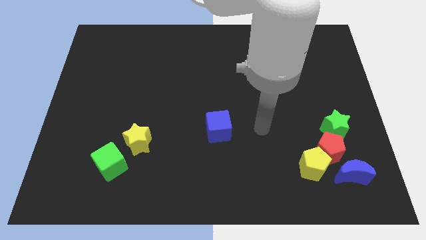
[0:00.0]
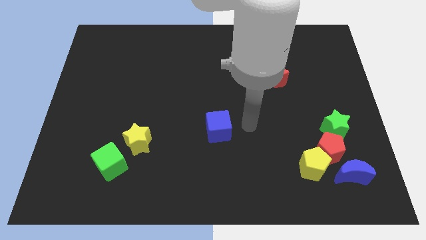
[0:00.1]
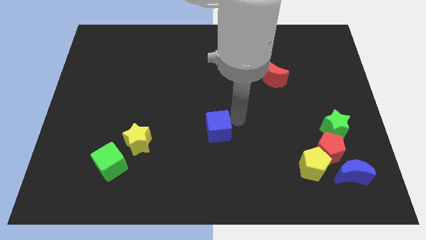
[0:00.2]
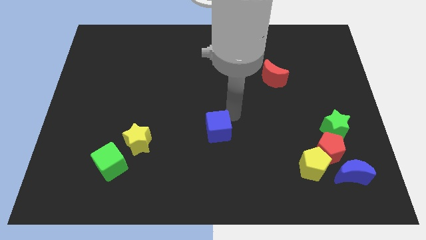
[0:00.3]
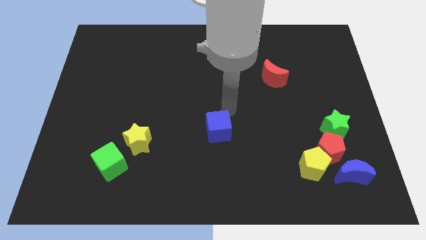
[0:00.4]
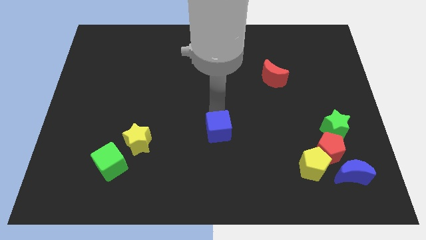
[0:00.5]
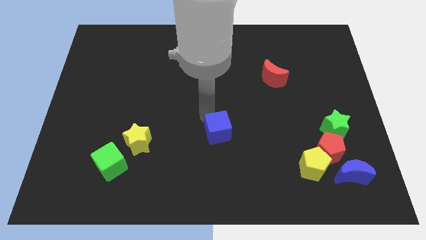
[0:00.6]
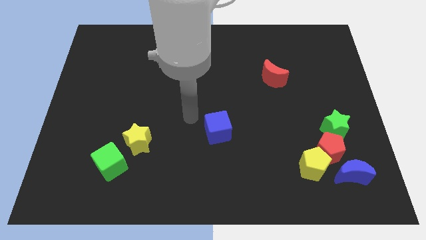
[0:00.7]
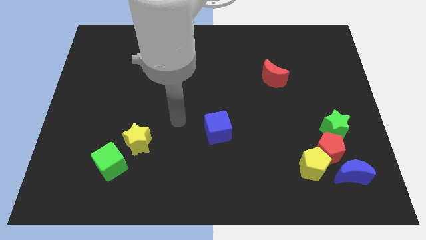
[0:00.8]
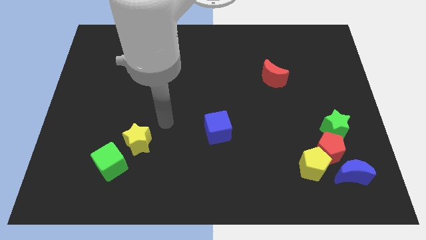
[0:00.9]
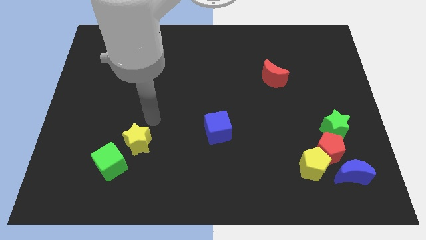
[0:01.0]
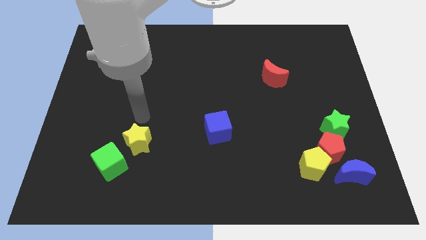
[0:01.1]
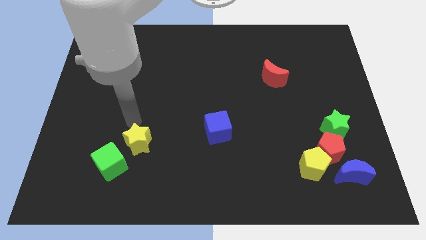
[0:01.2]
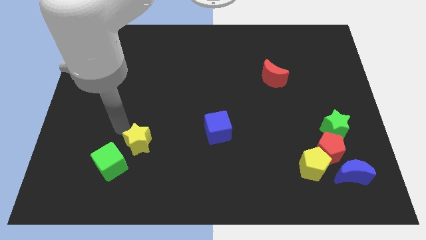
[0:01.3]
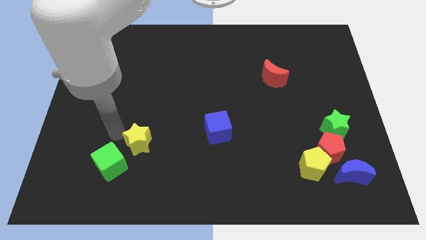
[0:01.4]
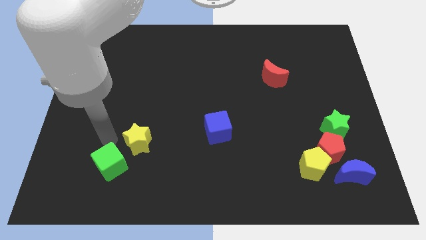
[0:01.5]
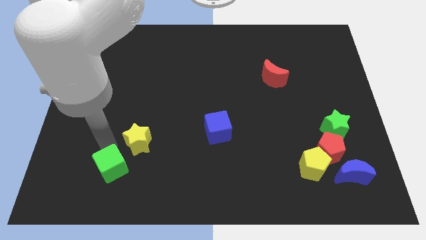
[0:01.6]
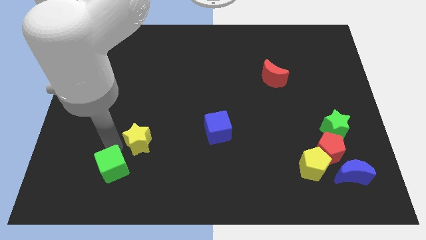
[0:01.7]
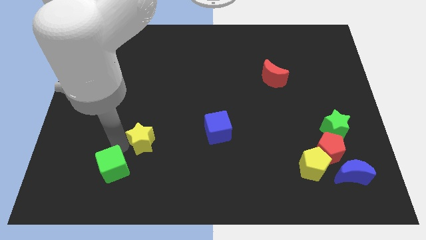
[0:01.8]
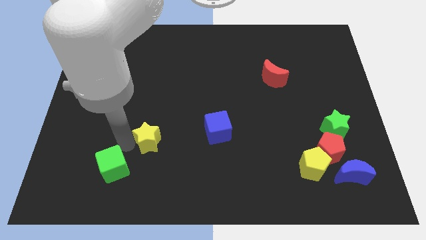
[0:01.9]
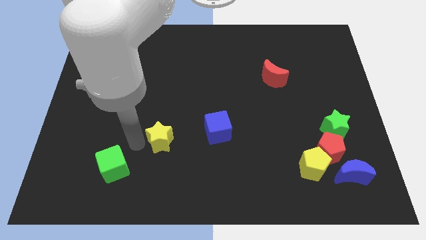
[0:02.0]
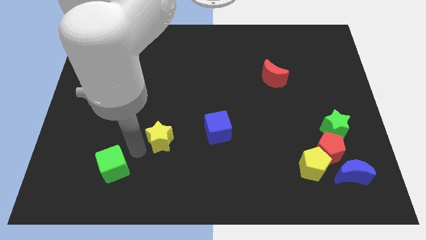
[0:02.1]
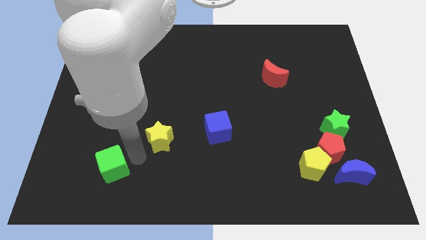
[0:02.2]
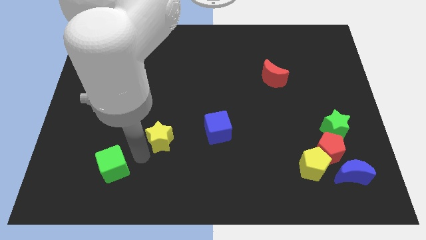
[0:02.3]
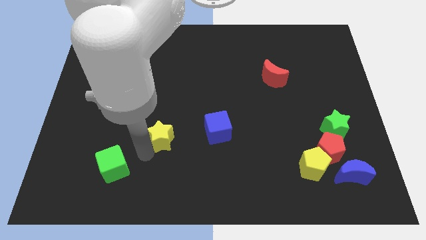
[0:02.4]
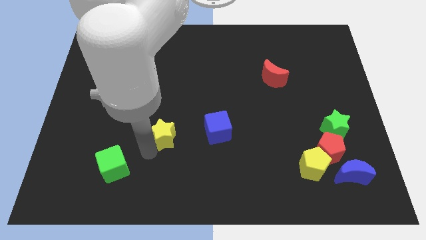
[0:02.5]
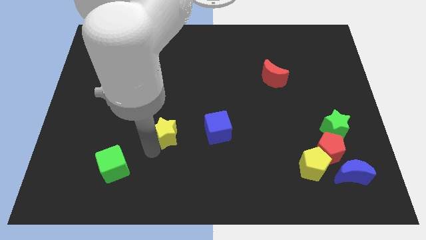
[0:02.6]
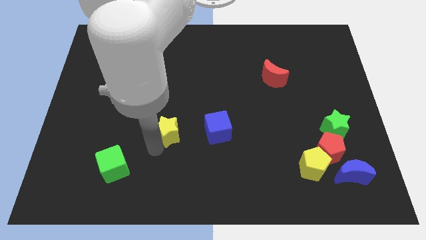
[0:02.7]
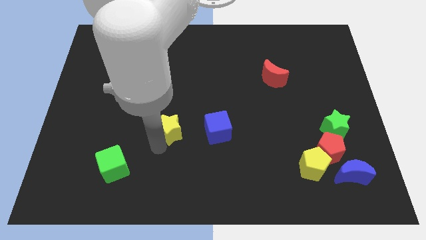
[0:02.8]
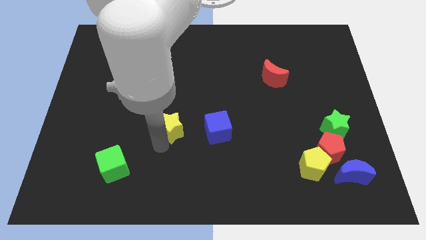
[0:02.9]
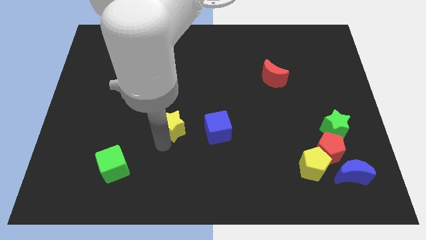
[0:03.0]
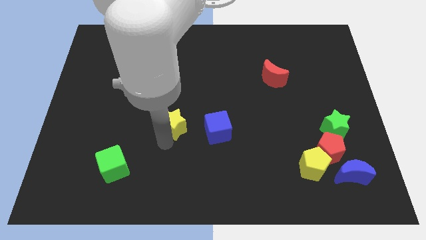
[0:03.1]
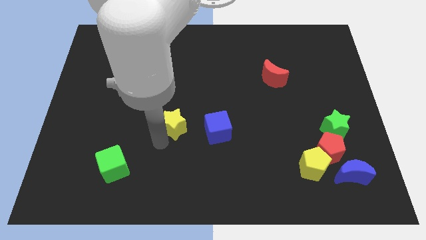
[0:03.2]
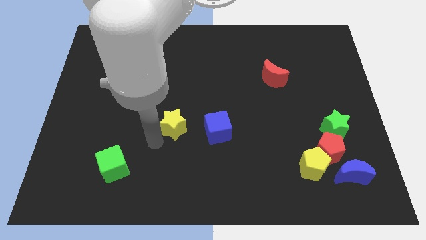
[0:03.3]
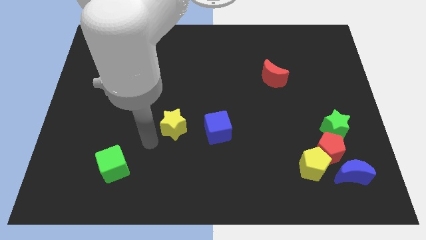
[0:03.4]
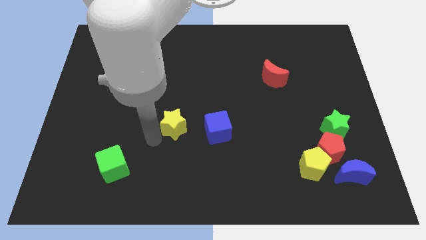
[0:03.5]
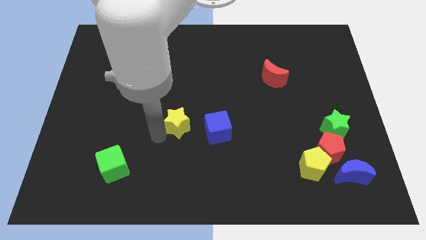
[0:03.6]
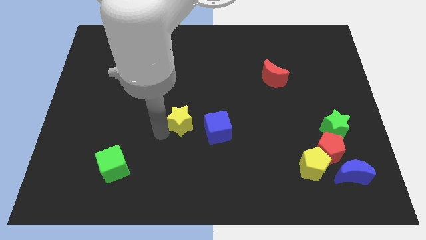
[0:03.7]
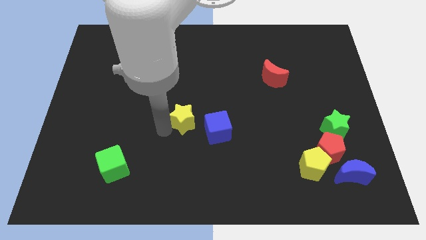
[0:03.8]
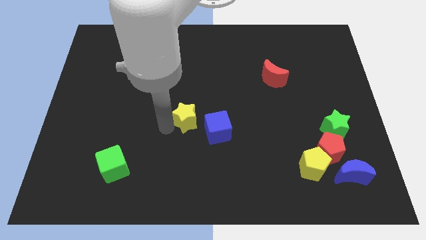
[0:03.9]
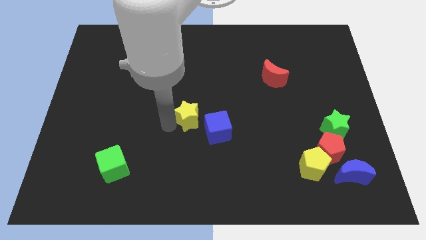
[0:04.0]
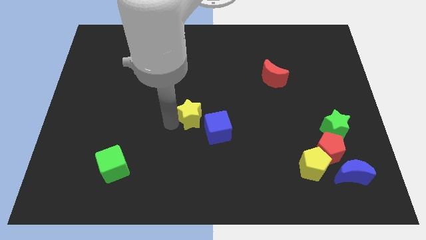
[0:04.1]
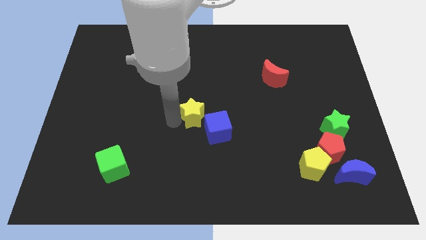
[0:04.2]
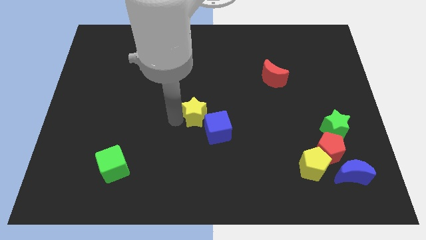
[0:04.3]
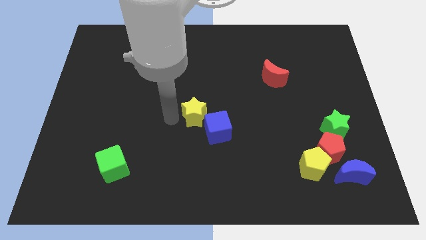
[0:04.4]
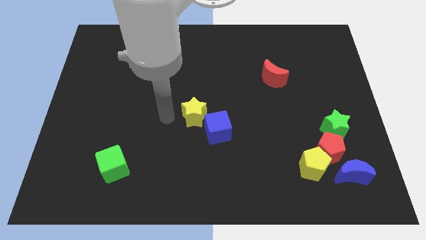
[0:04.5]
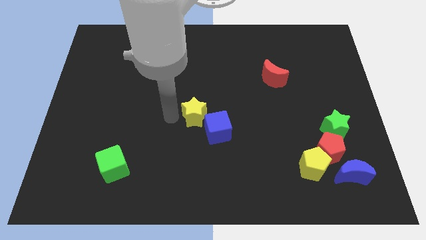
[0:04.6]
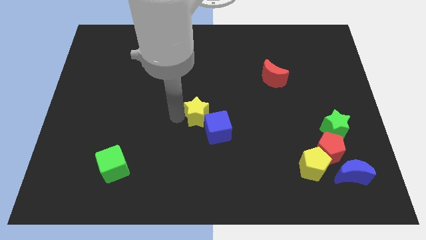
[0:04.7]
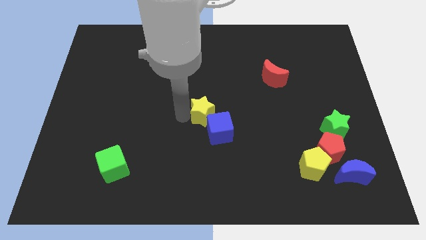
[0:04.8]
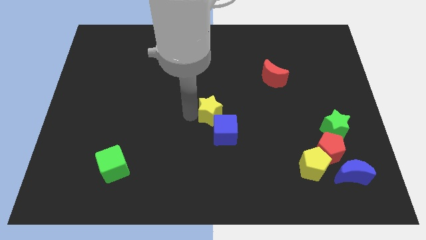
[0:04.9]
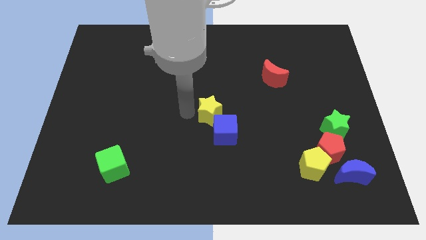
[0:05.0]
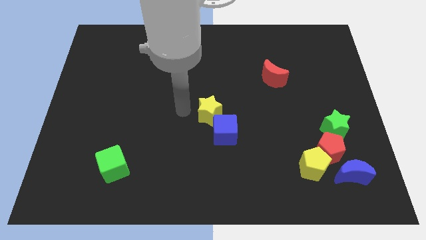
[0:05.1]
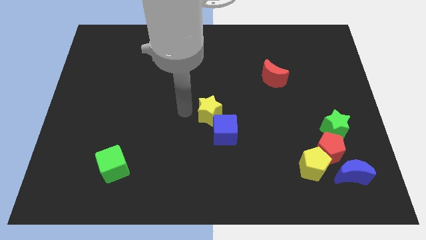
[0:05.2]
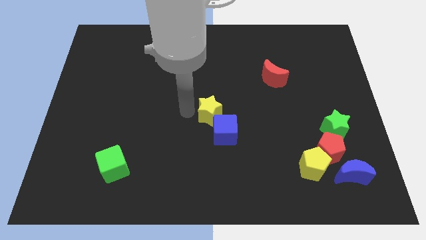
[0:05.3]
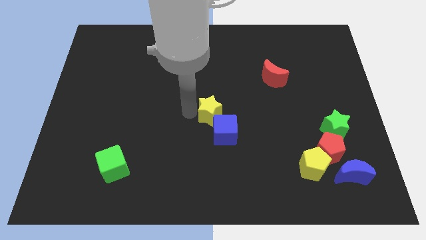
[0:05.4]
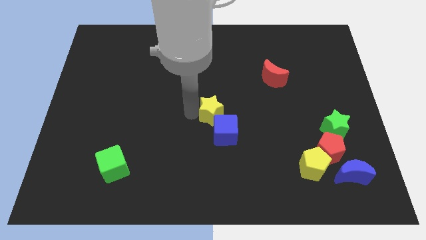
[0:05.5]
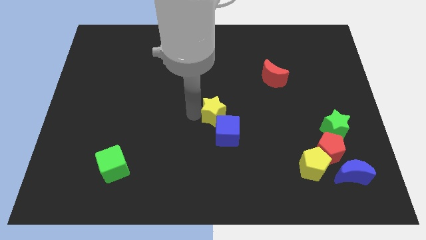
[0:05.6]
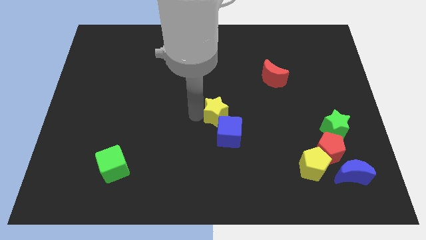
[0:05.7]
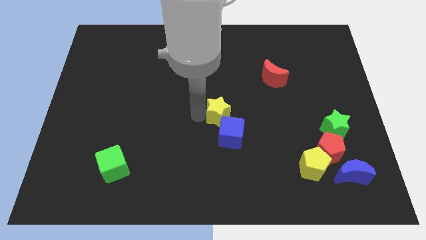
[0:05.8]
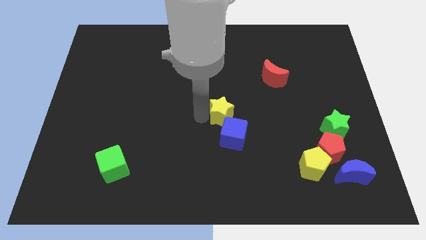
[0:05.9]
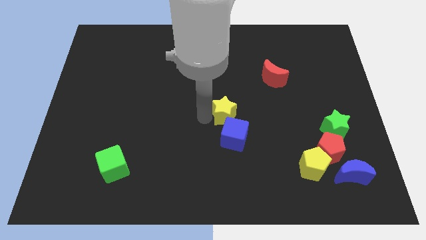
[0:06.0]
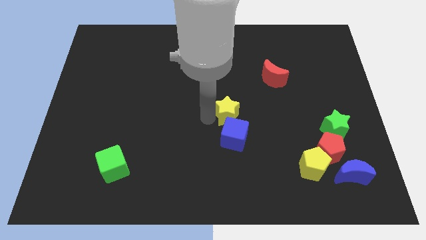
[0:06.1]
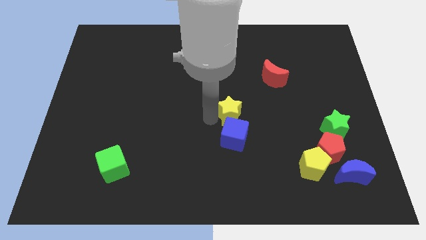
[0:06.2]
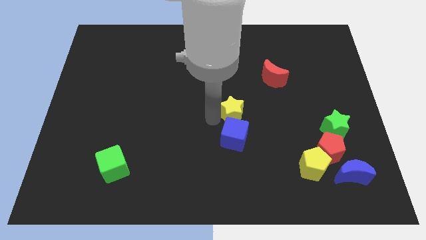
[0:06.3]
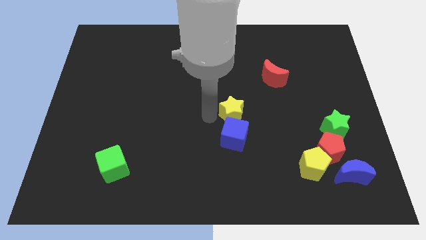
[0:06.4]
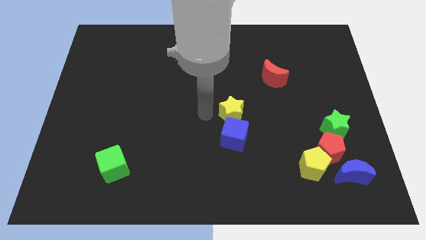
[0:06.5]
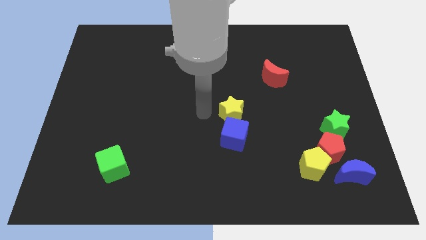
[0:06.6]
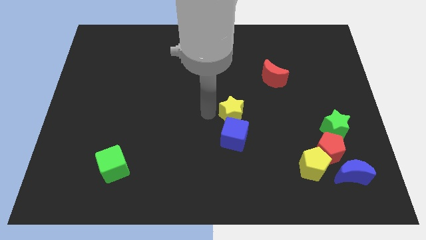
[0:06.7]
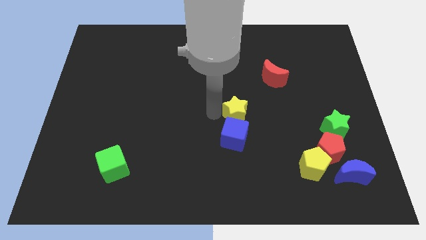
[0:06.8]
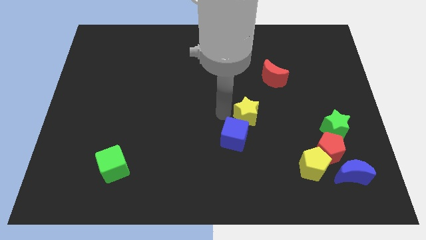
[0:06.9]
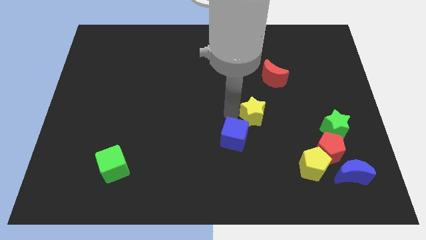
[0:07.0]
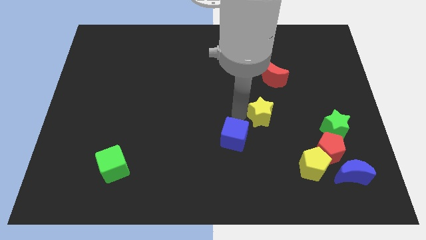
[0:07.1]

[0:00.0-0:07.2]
slide the yellow star to the bottom side of the red moon

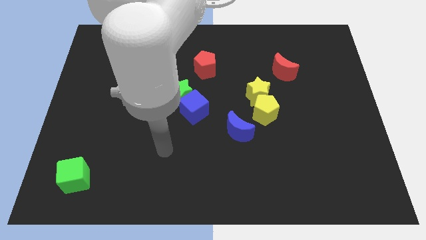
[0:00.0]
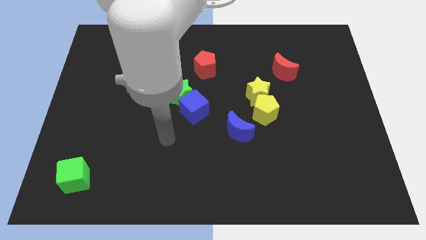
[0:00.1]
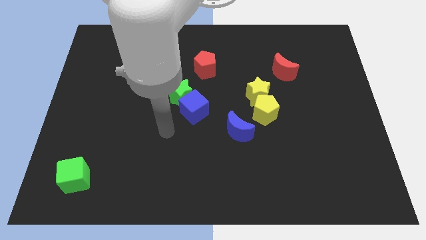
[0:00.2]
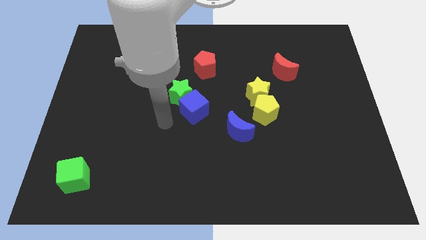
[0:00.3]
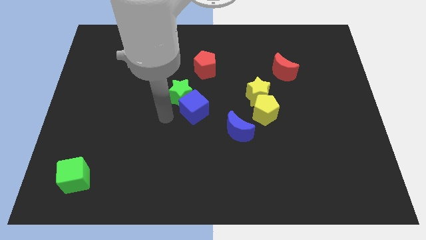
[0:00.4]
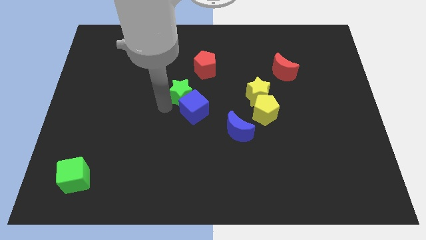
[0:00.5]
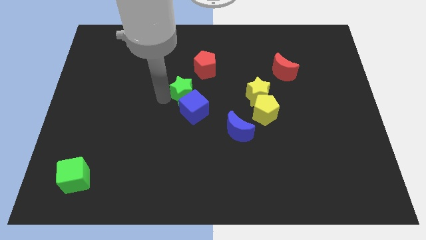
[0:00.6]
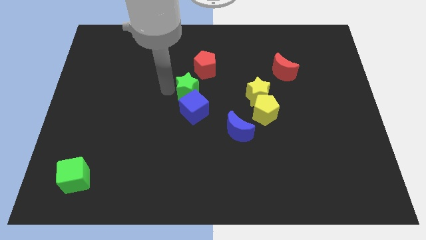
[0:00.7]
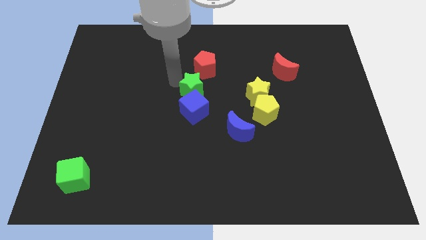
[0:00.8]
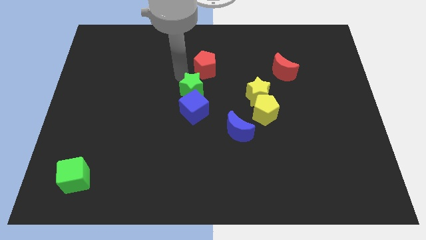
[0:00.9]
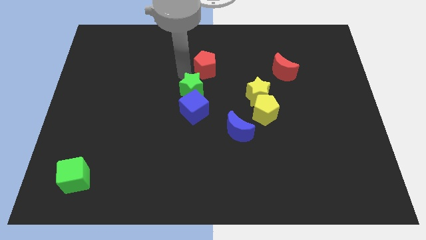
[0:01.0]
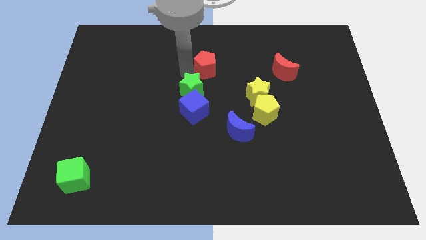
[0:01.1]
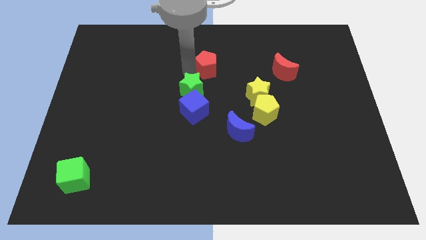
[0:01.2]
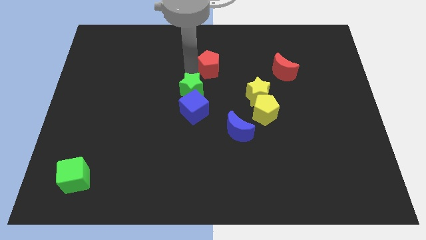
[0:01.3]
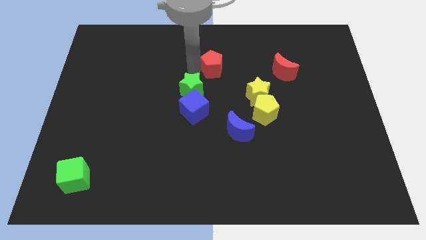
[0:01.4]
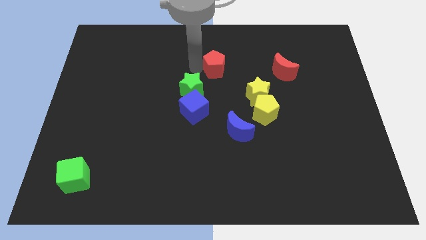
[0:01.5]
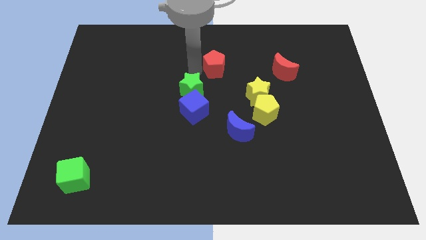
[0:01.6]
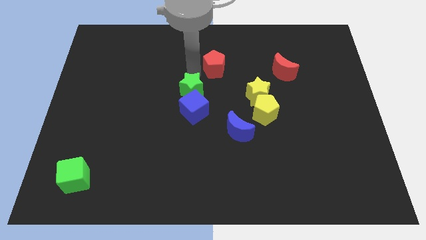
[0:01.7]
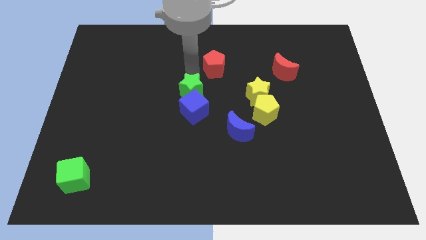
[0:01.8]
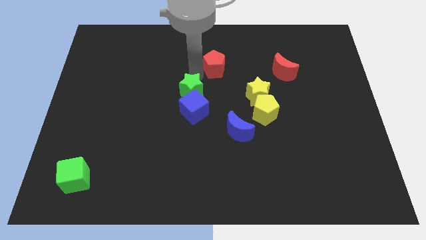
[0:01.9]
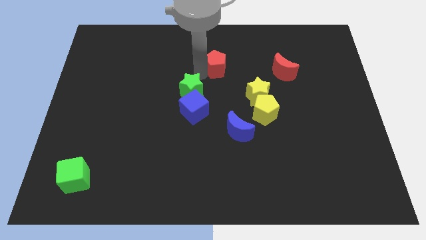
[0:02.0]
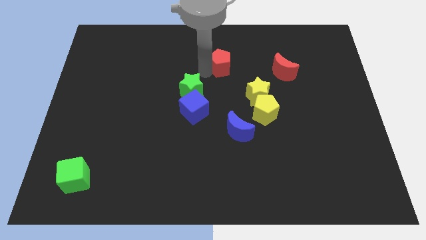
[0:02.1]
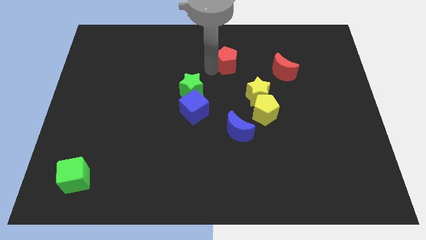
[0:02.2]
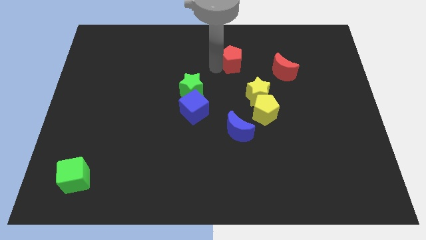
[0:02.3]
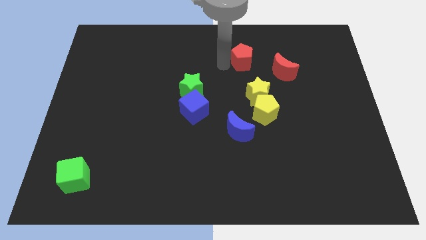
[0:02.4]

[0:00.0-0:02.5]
slide the red pentagon to the top left side of the red moon
